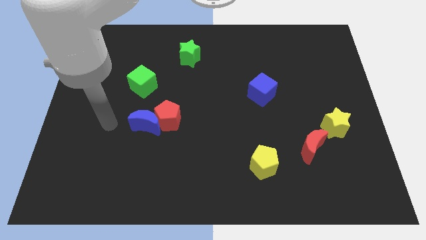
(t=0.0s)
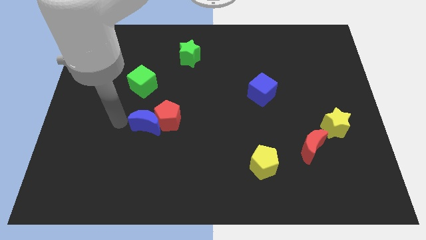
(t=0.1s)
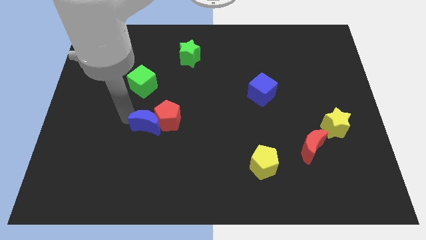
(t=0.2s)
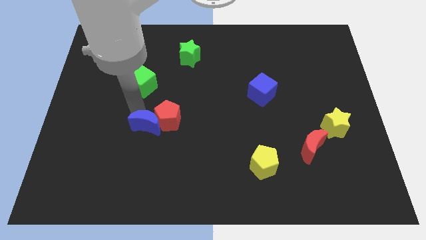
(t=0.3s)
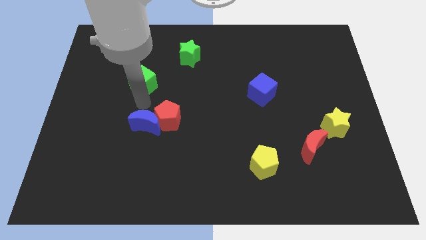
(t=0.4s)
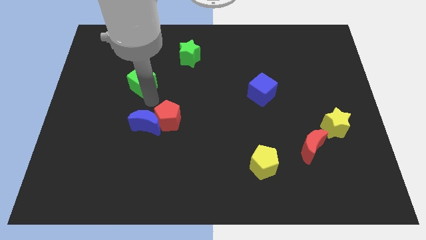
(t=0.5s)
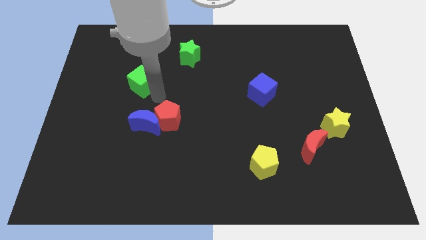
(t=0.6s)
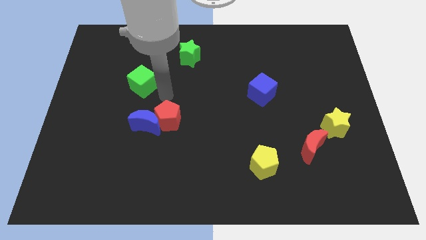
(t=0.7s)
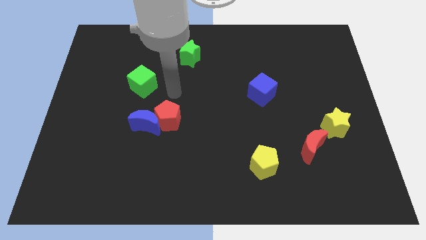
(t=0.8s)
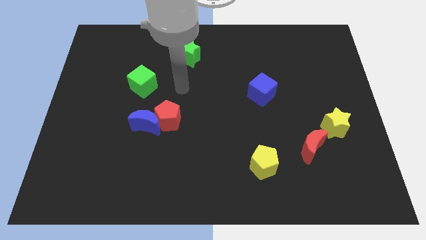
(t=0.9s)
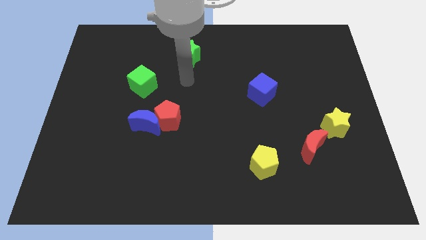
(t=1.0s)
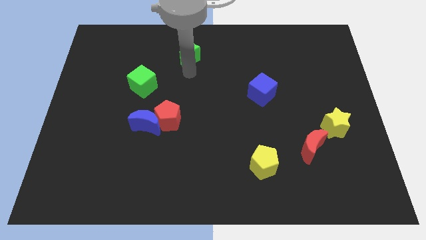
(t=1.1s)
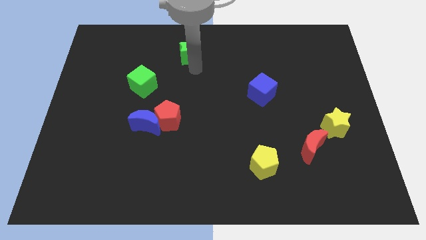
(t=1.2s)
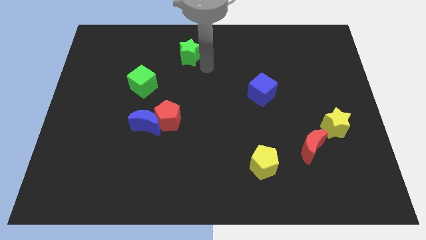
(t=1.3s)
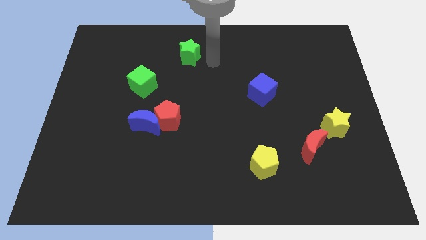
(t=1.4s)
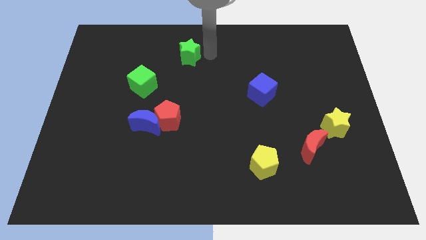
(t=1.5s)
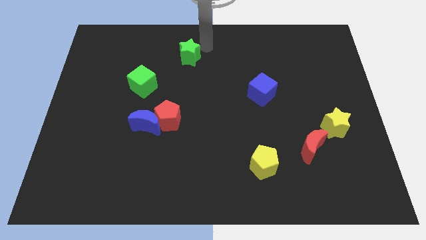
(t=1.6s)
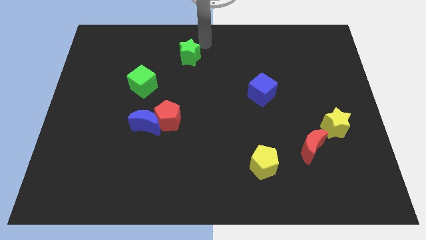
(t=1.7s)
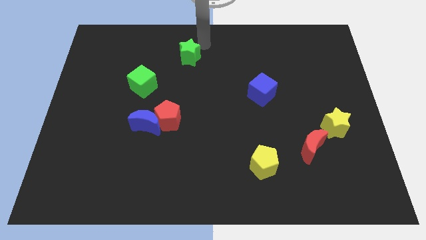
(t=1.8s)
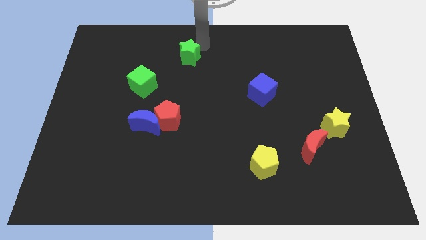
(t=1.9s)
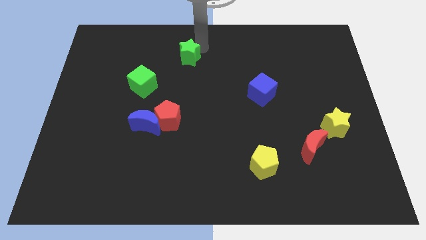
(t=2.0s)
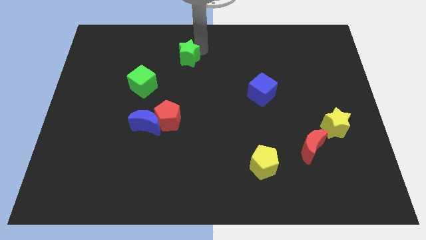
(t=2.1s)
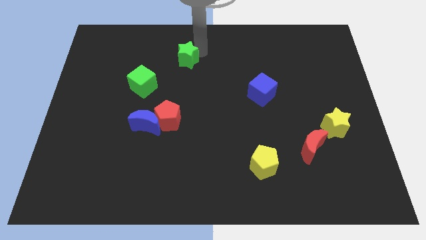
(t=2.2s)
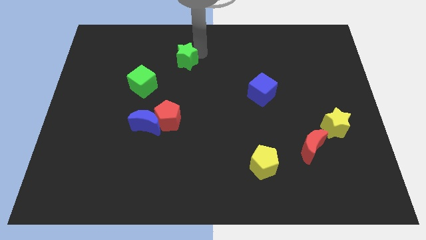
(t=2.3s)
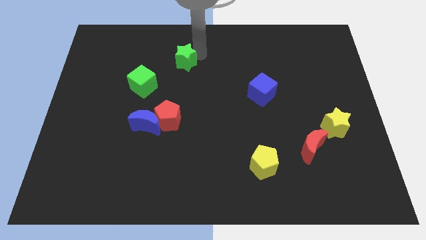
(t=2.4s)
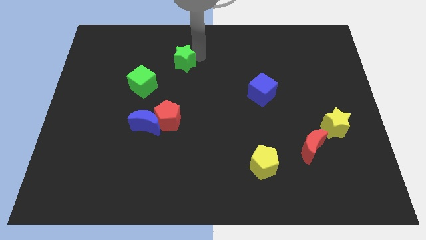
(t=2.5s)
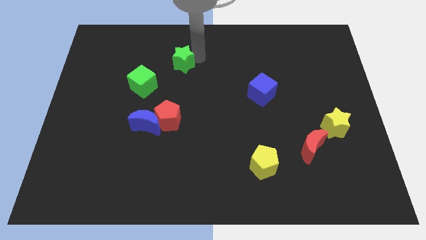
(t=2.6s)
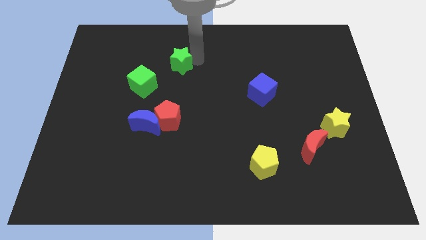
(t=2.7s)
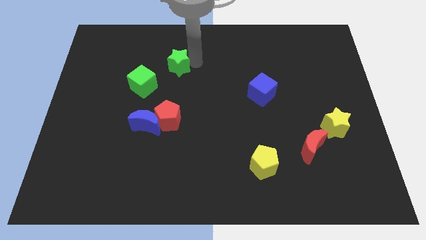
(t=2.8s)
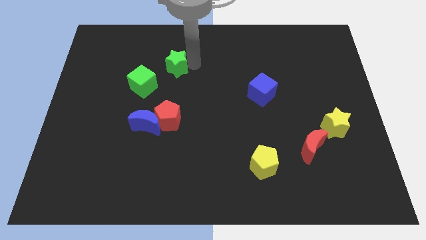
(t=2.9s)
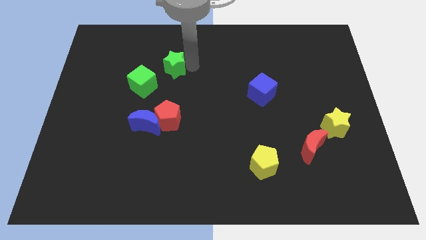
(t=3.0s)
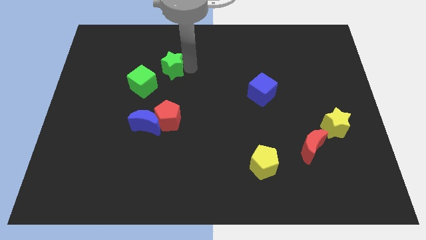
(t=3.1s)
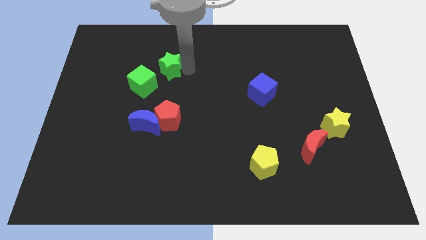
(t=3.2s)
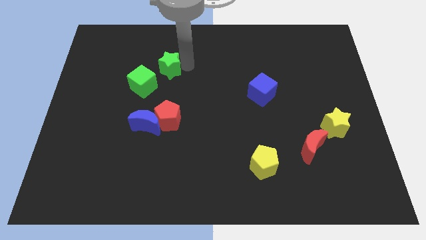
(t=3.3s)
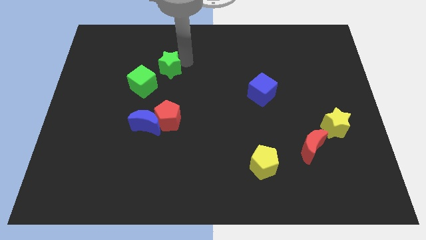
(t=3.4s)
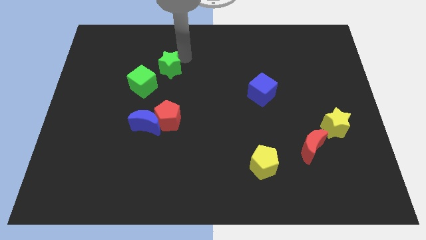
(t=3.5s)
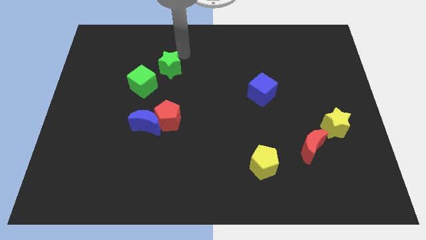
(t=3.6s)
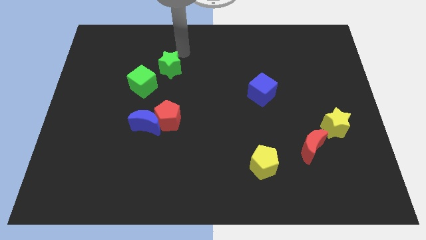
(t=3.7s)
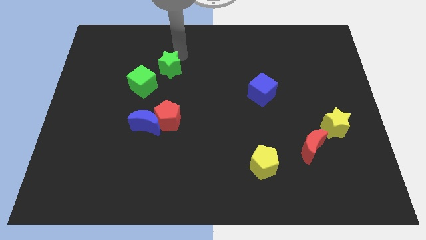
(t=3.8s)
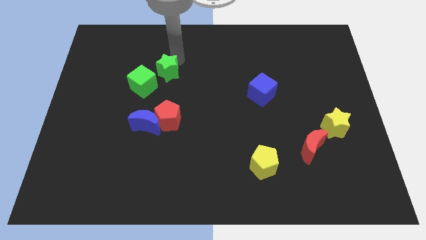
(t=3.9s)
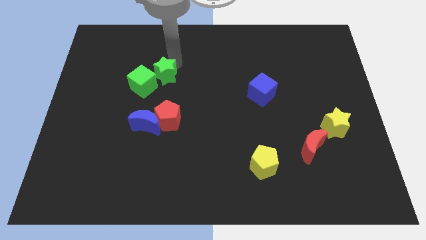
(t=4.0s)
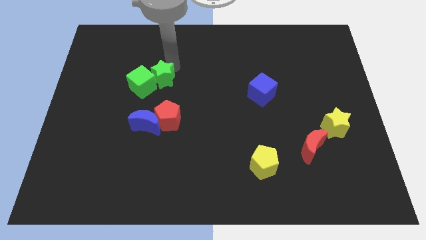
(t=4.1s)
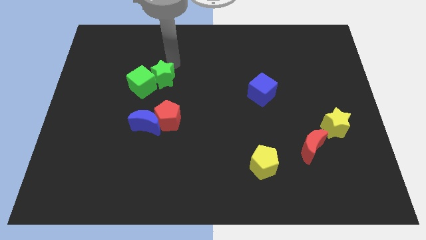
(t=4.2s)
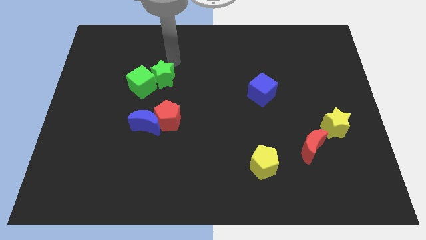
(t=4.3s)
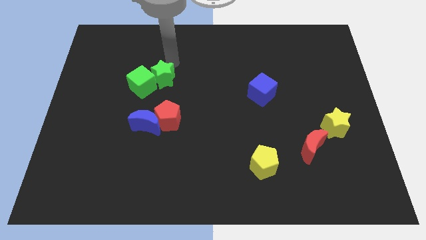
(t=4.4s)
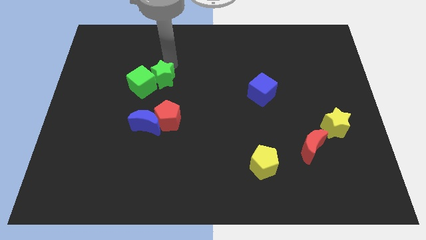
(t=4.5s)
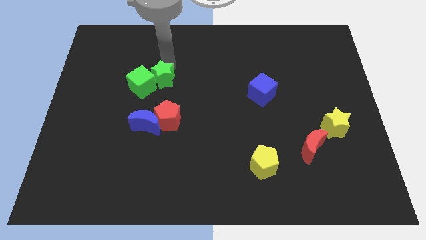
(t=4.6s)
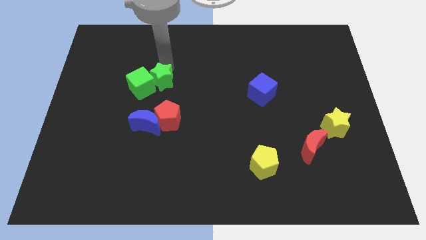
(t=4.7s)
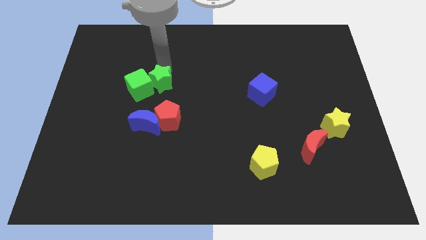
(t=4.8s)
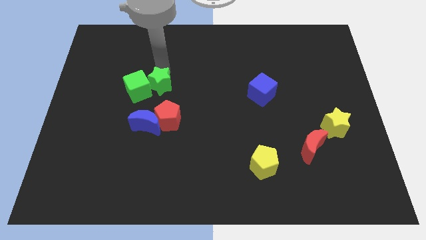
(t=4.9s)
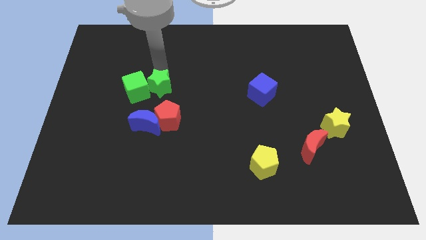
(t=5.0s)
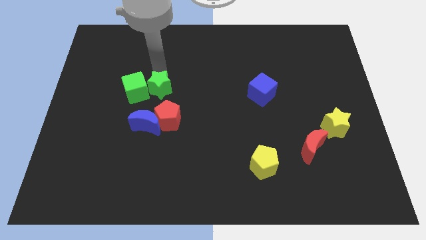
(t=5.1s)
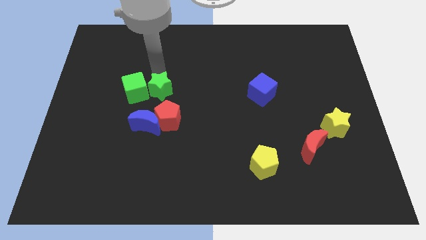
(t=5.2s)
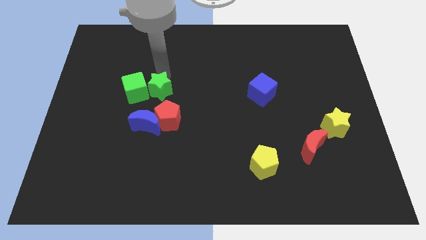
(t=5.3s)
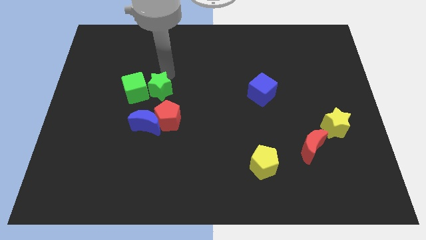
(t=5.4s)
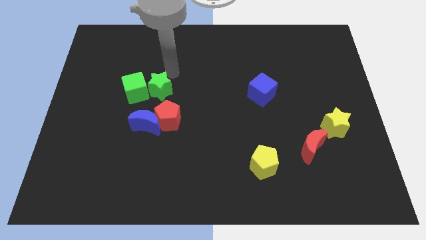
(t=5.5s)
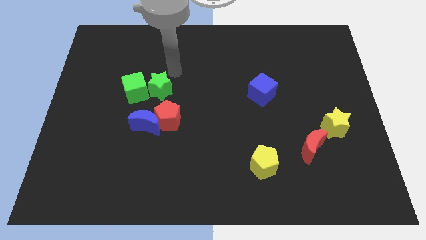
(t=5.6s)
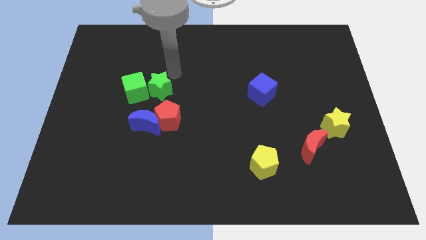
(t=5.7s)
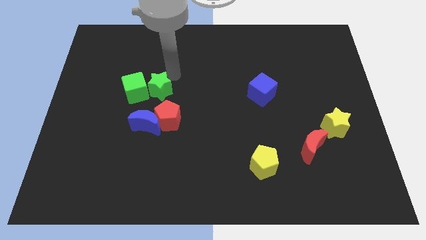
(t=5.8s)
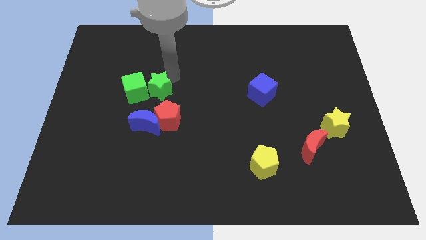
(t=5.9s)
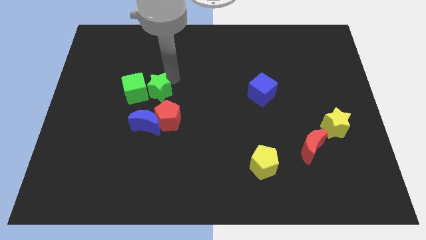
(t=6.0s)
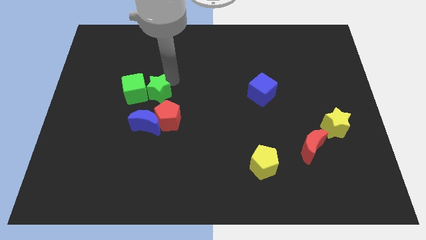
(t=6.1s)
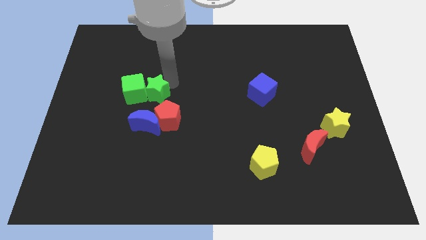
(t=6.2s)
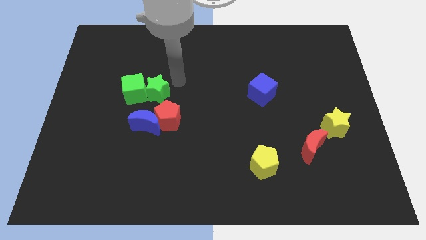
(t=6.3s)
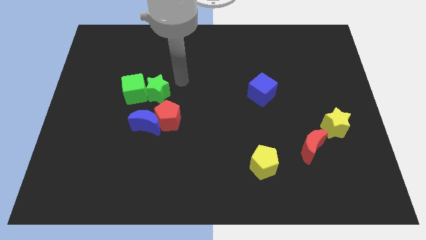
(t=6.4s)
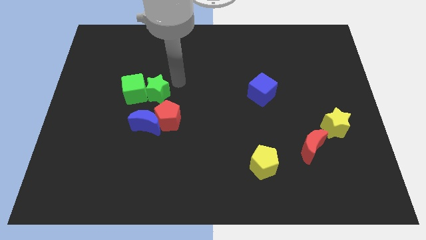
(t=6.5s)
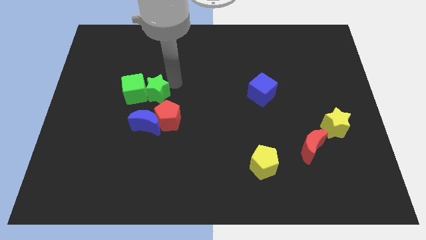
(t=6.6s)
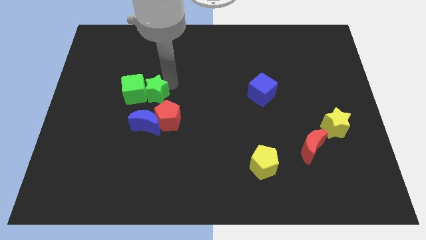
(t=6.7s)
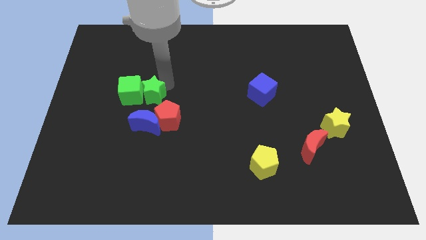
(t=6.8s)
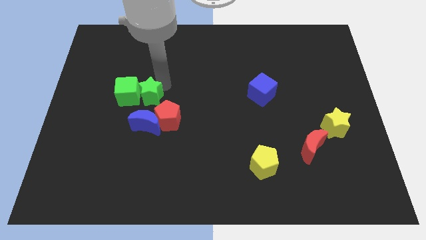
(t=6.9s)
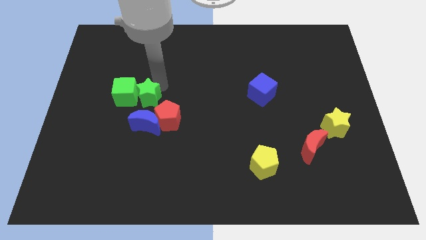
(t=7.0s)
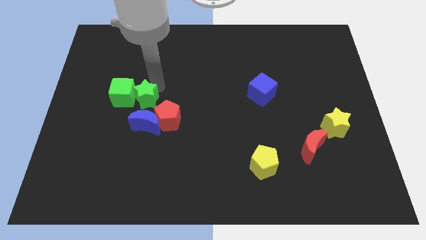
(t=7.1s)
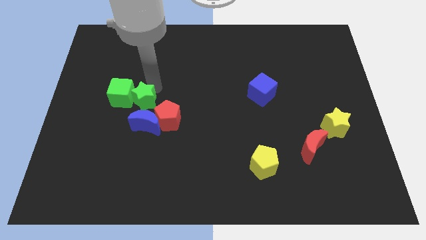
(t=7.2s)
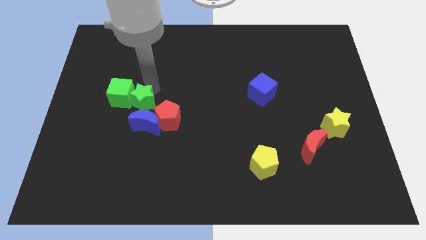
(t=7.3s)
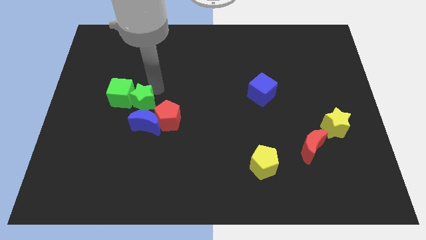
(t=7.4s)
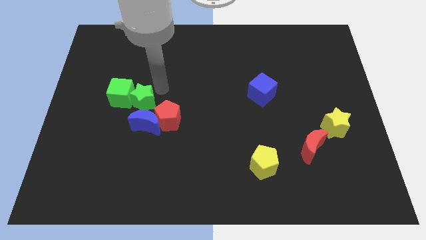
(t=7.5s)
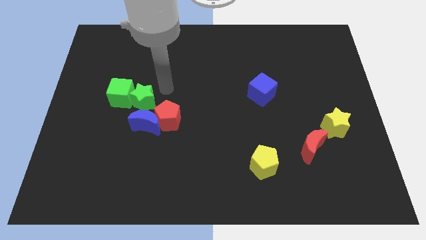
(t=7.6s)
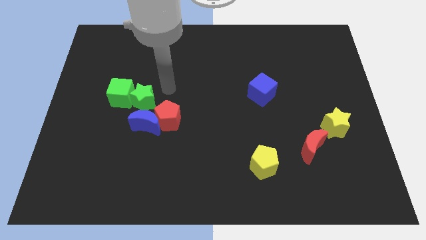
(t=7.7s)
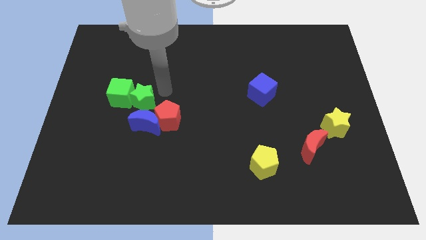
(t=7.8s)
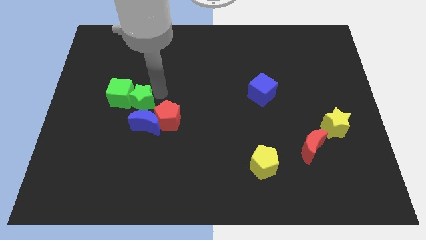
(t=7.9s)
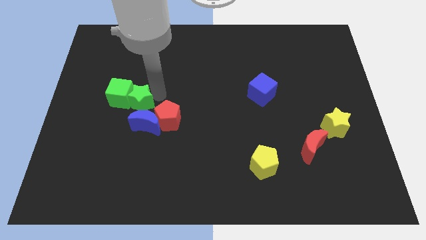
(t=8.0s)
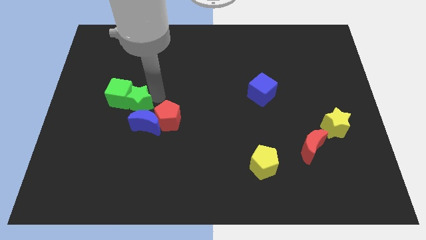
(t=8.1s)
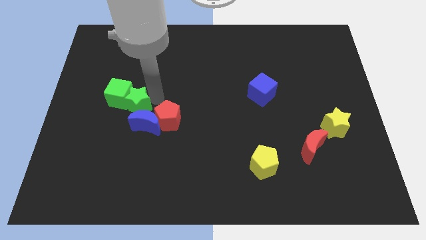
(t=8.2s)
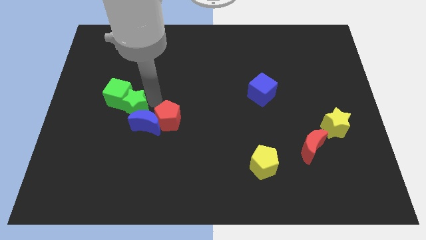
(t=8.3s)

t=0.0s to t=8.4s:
push the green star diagonally downwards and to the left
